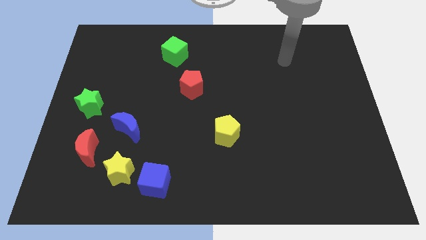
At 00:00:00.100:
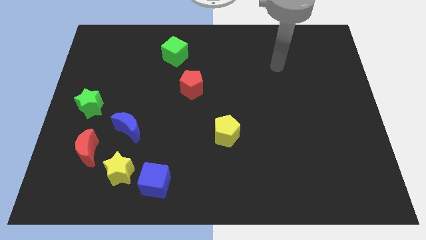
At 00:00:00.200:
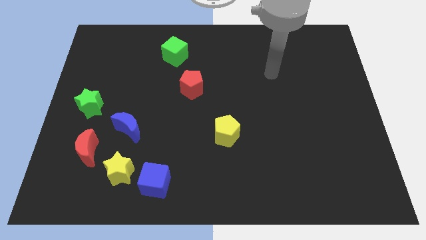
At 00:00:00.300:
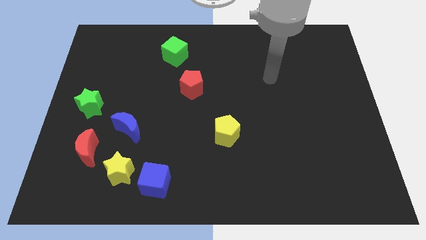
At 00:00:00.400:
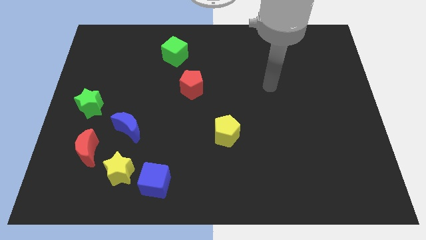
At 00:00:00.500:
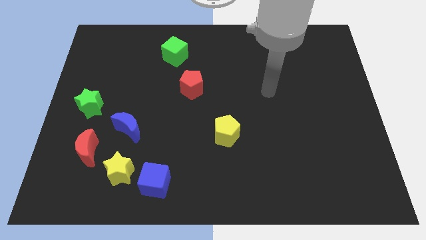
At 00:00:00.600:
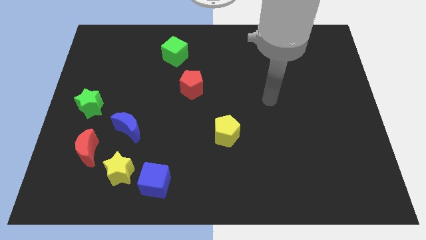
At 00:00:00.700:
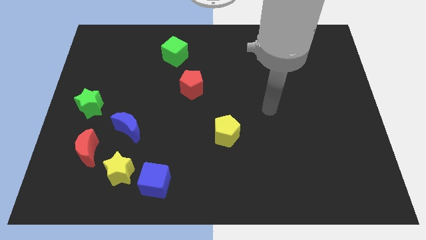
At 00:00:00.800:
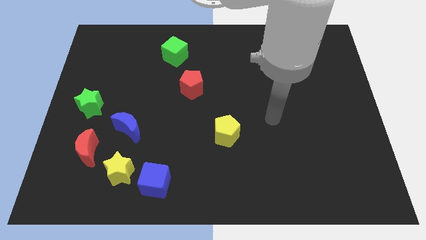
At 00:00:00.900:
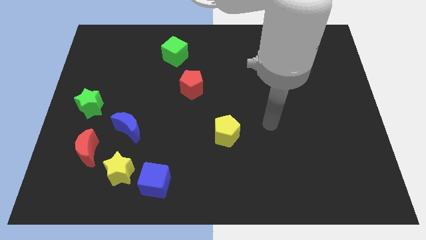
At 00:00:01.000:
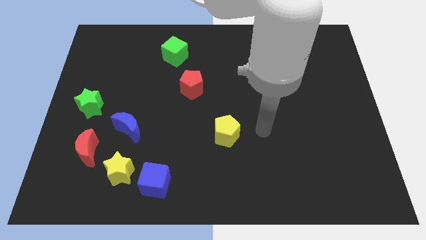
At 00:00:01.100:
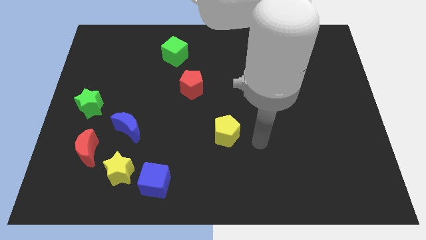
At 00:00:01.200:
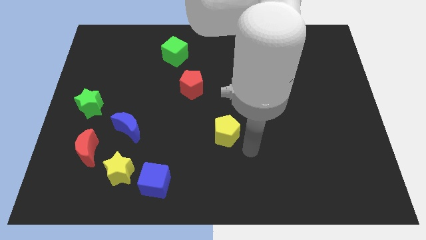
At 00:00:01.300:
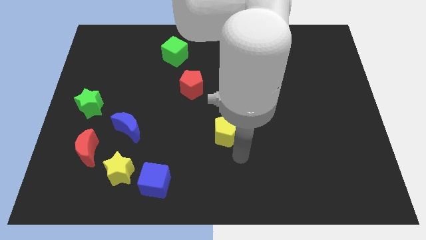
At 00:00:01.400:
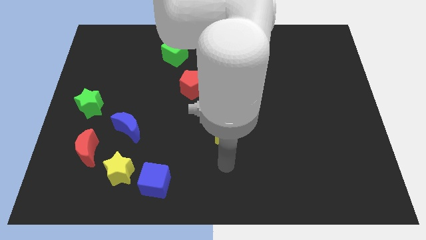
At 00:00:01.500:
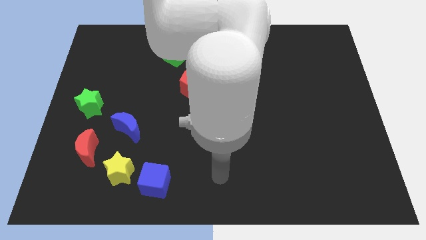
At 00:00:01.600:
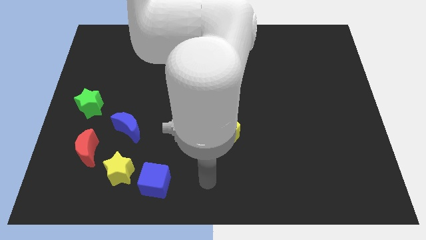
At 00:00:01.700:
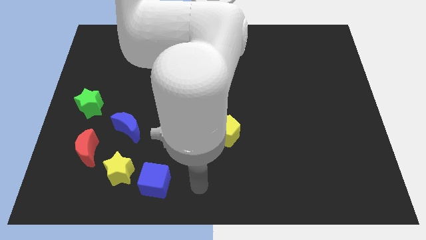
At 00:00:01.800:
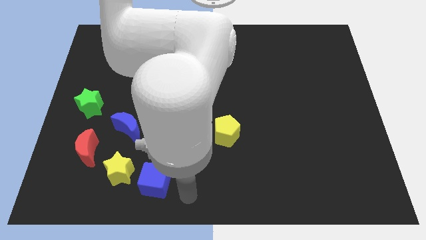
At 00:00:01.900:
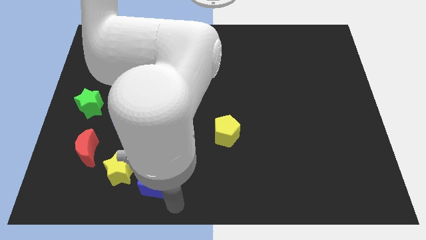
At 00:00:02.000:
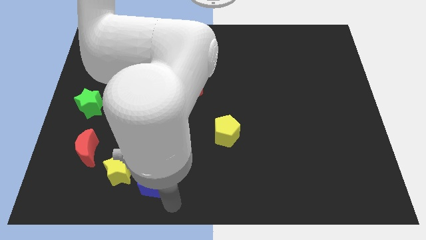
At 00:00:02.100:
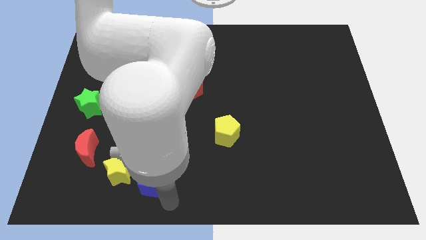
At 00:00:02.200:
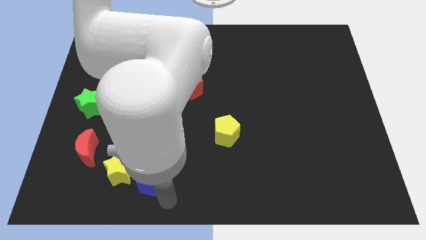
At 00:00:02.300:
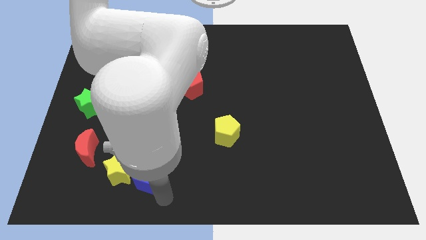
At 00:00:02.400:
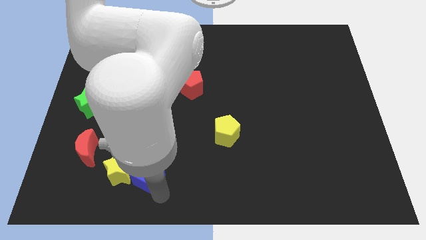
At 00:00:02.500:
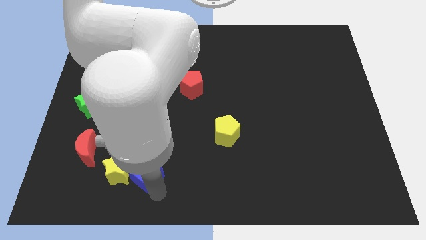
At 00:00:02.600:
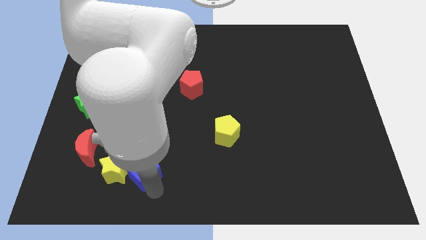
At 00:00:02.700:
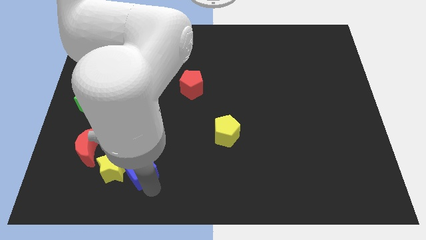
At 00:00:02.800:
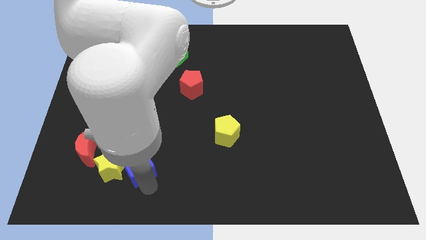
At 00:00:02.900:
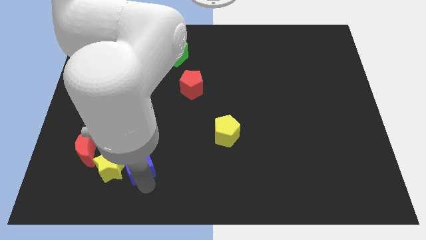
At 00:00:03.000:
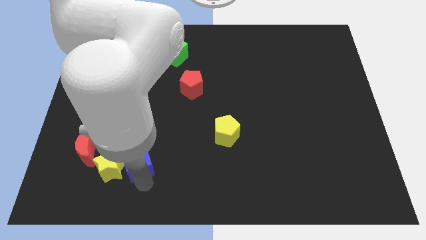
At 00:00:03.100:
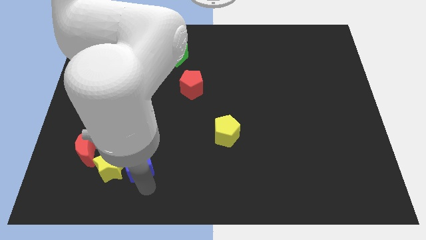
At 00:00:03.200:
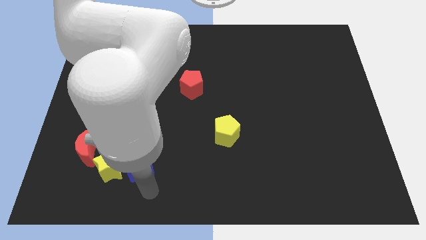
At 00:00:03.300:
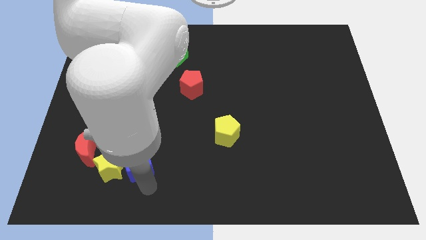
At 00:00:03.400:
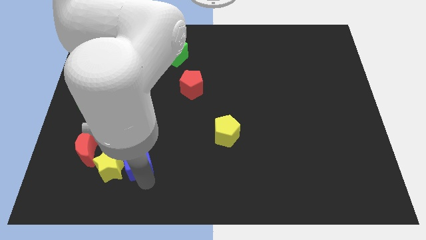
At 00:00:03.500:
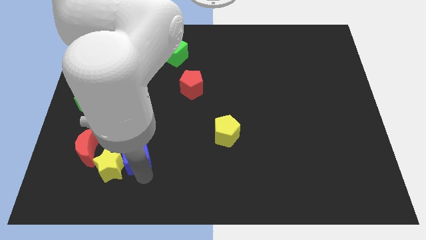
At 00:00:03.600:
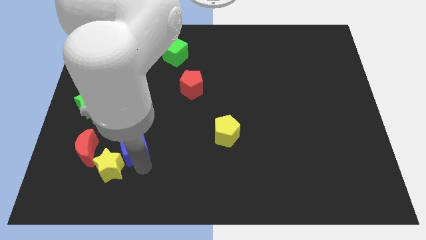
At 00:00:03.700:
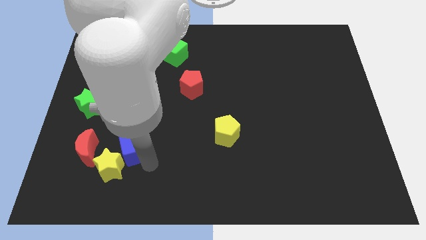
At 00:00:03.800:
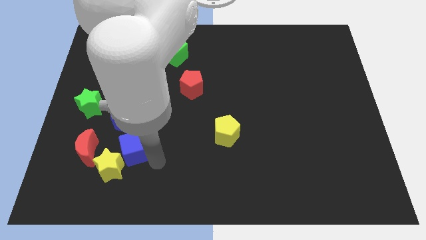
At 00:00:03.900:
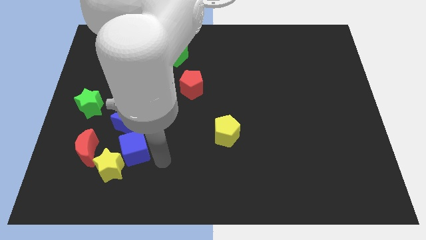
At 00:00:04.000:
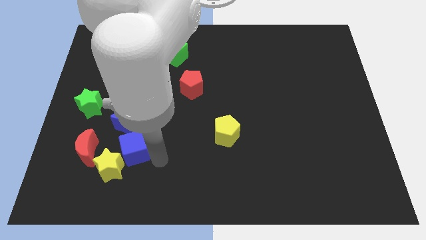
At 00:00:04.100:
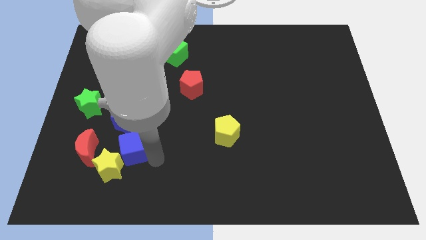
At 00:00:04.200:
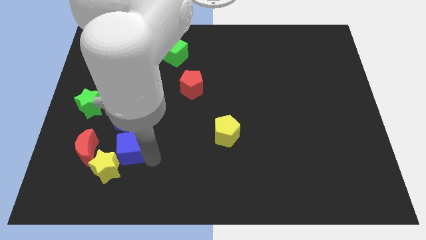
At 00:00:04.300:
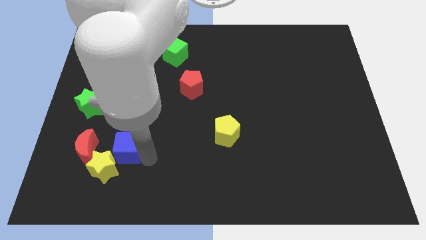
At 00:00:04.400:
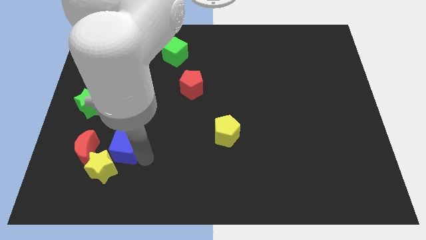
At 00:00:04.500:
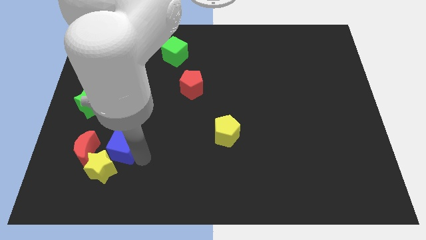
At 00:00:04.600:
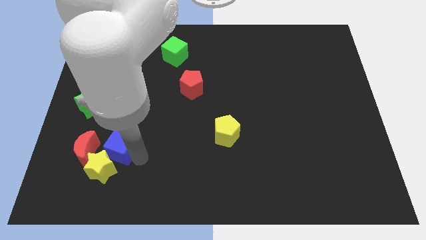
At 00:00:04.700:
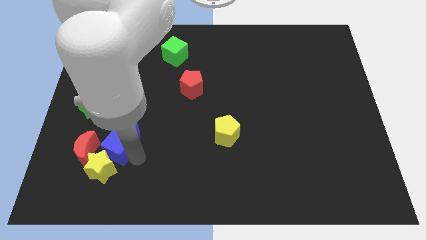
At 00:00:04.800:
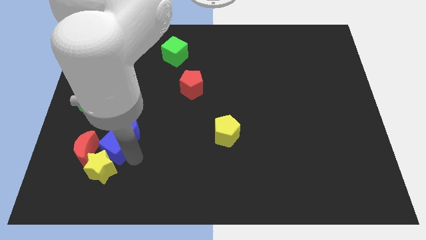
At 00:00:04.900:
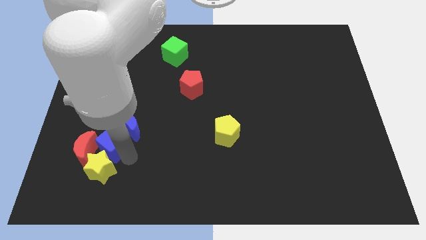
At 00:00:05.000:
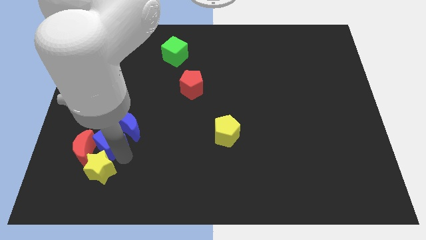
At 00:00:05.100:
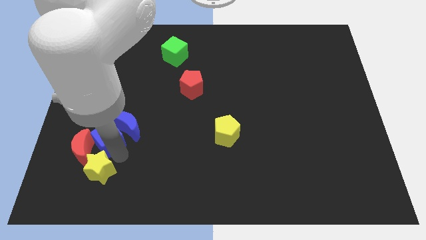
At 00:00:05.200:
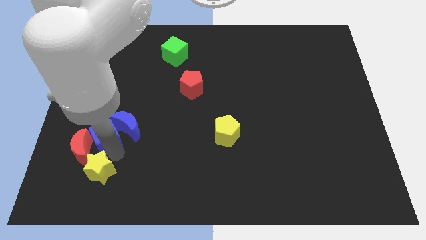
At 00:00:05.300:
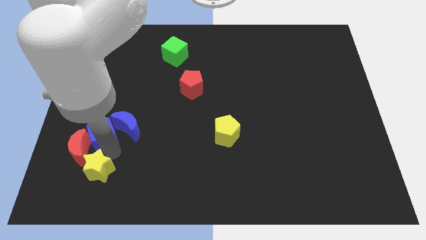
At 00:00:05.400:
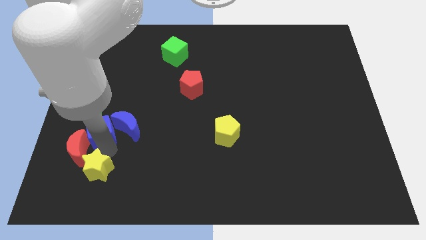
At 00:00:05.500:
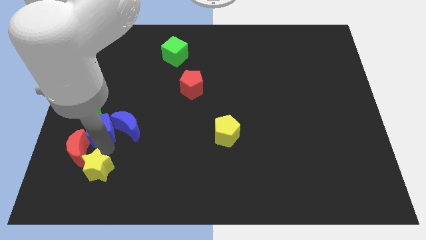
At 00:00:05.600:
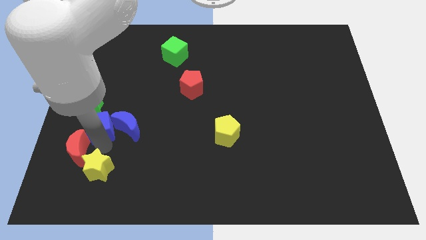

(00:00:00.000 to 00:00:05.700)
put the blue cube to the top left side of the blue moon

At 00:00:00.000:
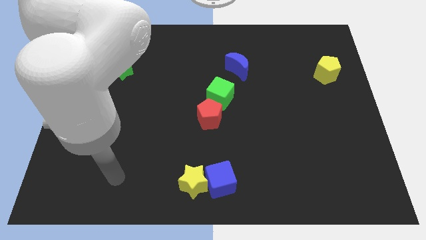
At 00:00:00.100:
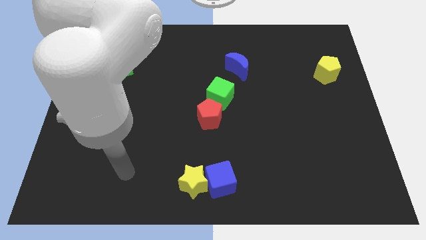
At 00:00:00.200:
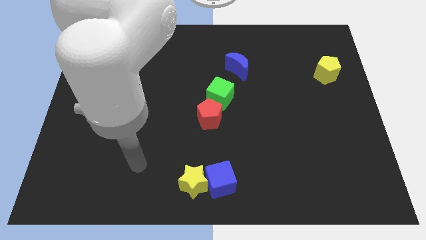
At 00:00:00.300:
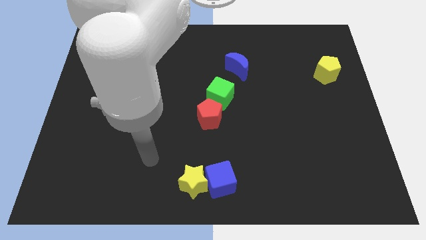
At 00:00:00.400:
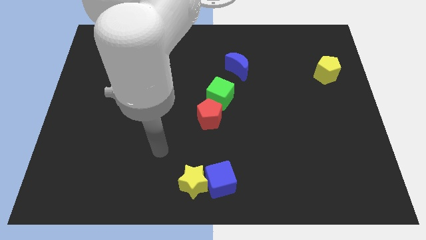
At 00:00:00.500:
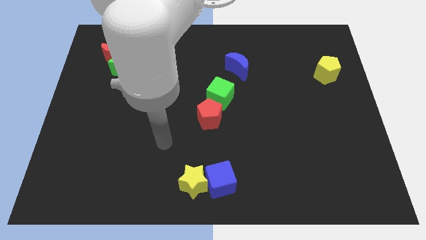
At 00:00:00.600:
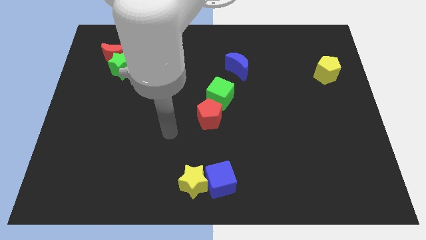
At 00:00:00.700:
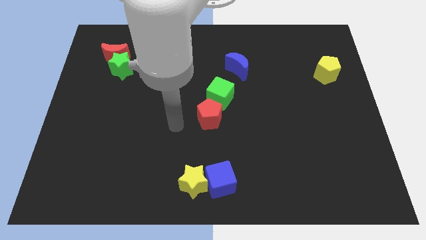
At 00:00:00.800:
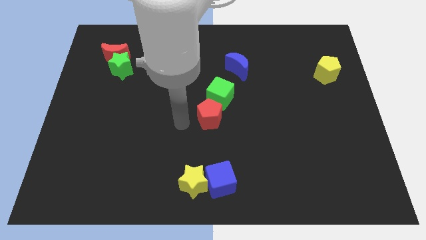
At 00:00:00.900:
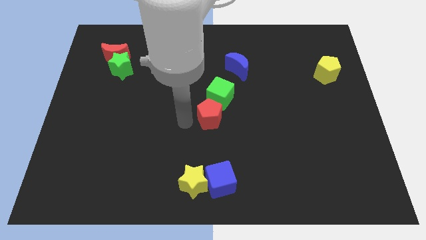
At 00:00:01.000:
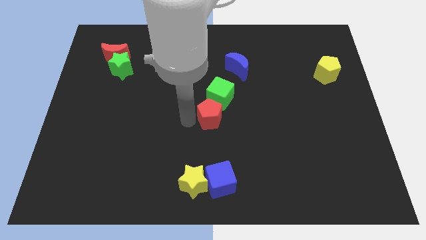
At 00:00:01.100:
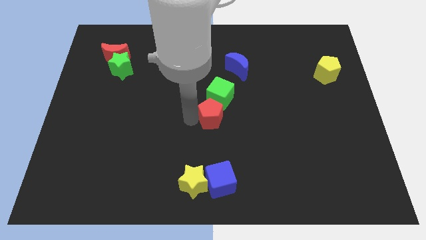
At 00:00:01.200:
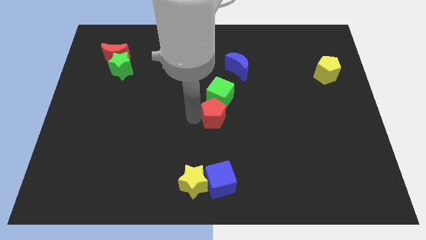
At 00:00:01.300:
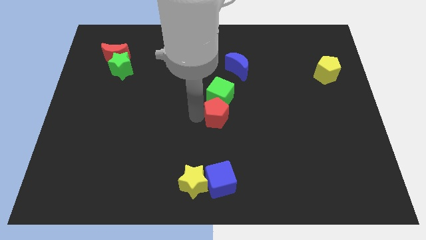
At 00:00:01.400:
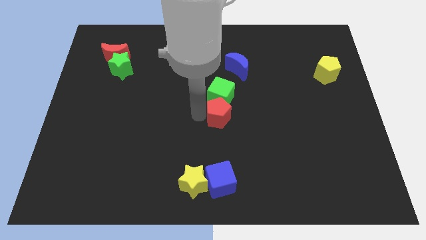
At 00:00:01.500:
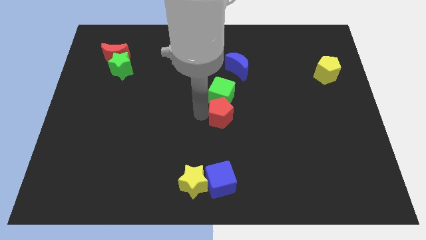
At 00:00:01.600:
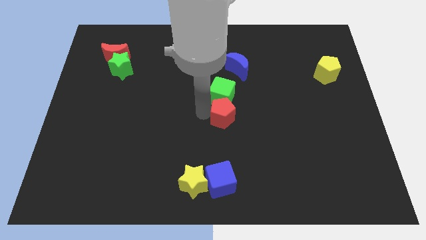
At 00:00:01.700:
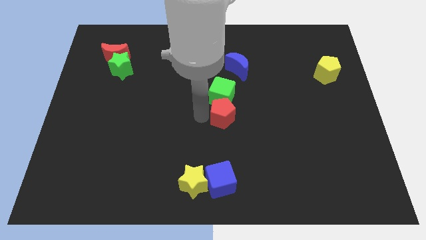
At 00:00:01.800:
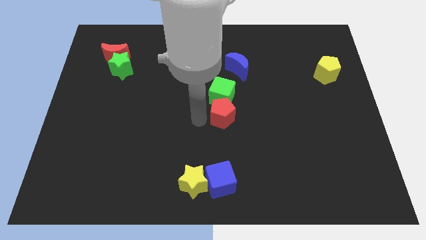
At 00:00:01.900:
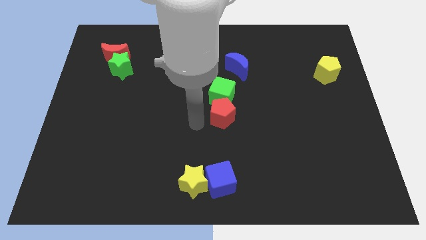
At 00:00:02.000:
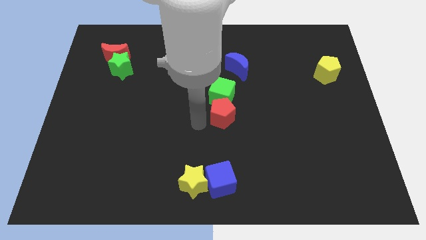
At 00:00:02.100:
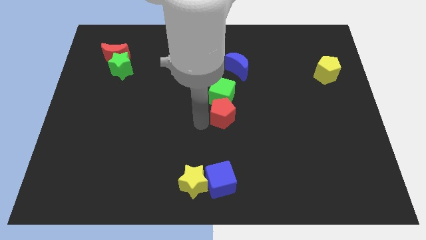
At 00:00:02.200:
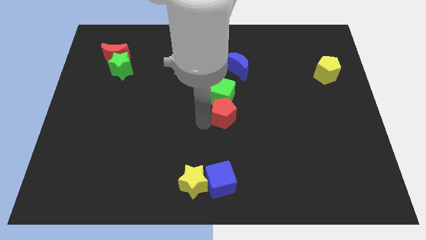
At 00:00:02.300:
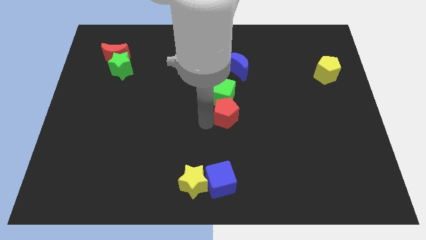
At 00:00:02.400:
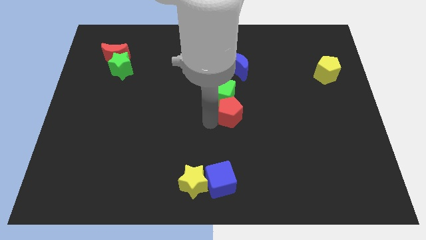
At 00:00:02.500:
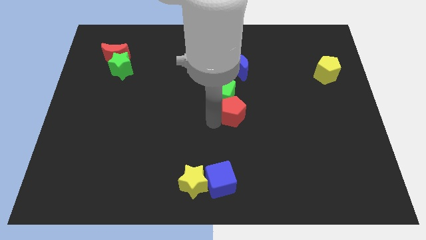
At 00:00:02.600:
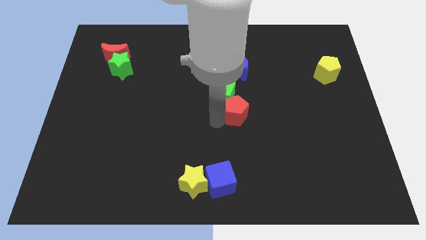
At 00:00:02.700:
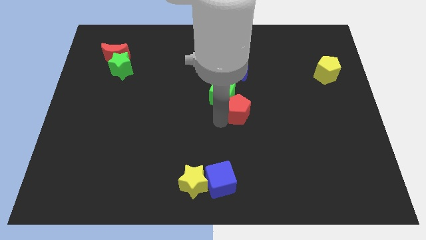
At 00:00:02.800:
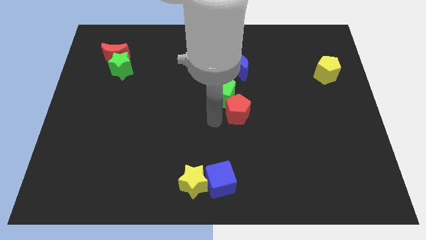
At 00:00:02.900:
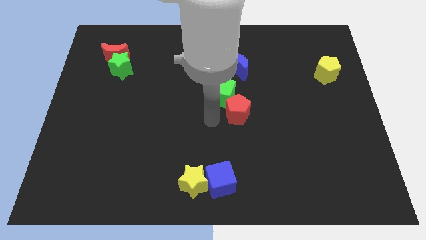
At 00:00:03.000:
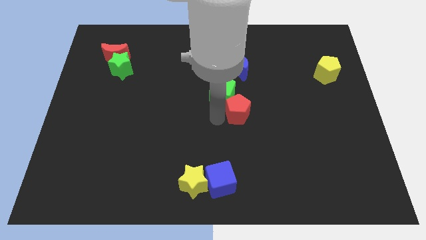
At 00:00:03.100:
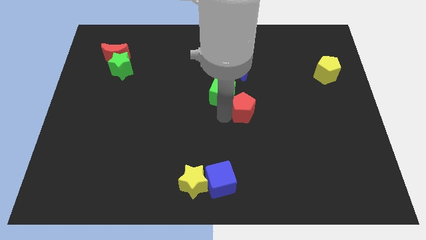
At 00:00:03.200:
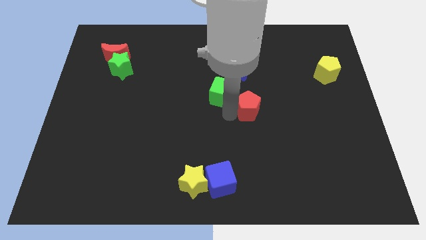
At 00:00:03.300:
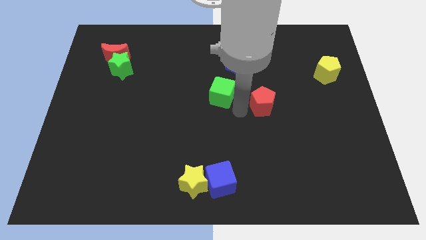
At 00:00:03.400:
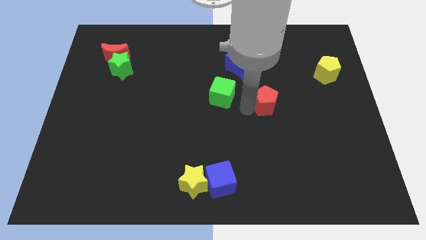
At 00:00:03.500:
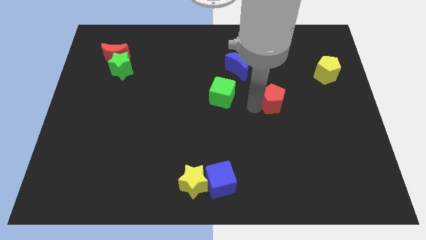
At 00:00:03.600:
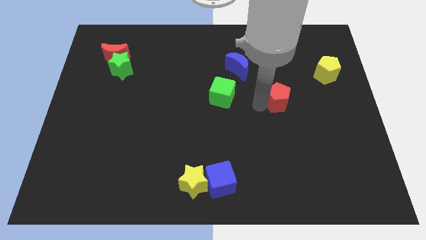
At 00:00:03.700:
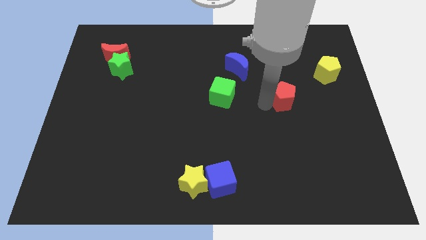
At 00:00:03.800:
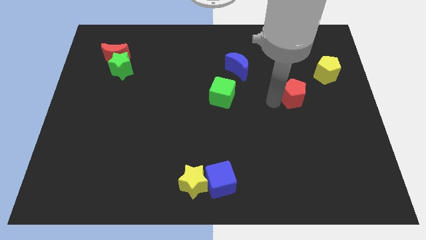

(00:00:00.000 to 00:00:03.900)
move the red pentagon to the bottom left of the yellow pentagon
